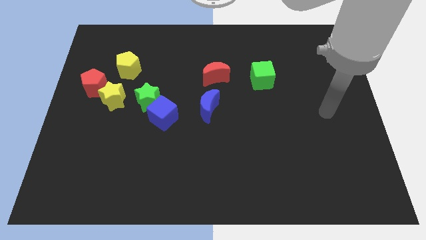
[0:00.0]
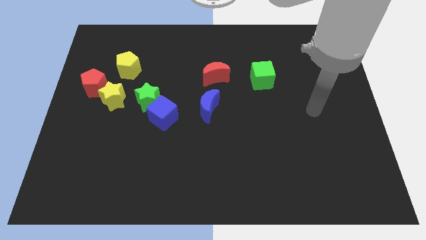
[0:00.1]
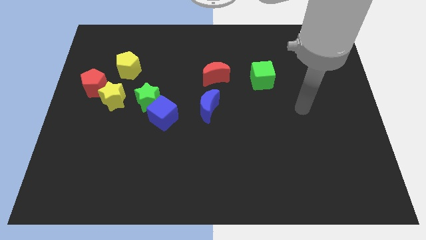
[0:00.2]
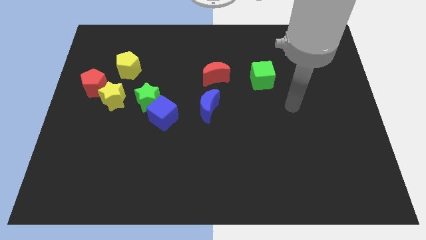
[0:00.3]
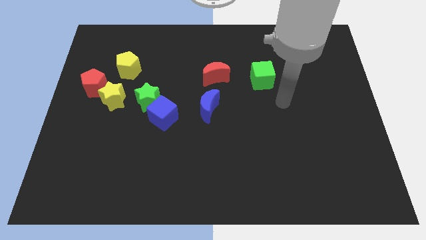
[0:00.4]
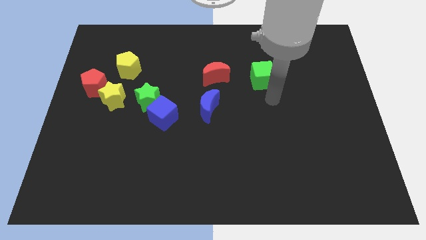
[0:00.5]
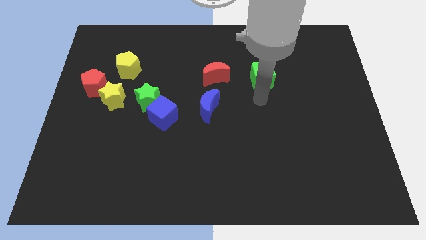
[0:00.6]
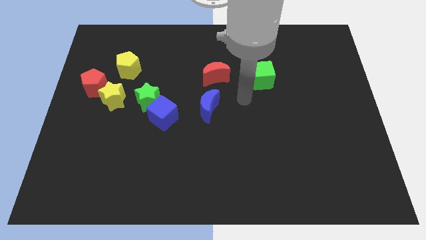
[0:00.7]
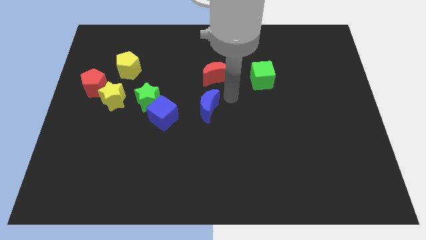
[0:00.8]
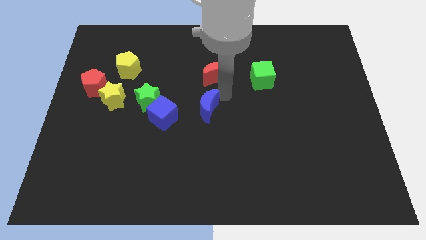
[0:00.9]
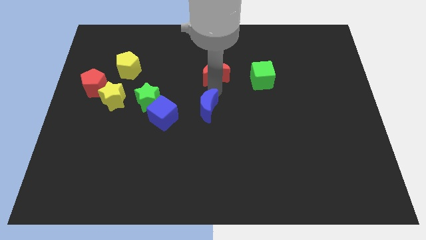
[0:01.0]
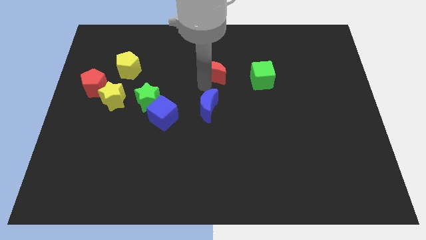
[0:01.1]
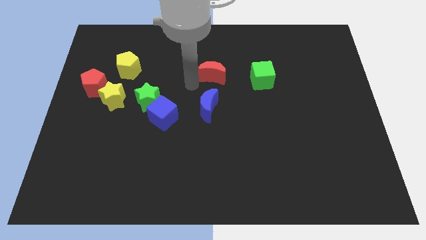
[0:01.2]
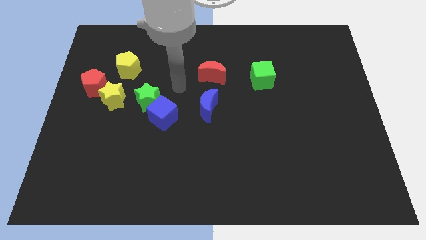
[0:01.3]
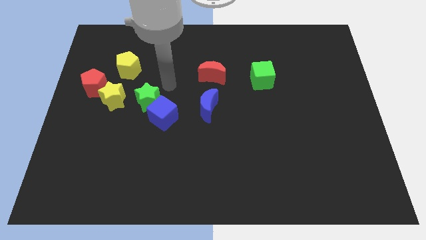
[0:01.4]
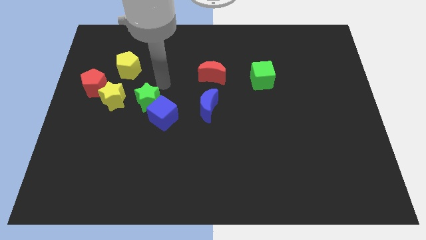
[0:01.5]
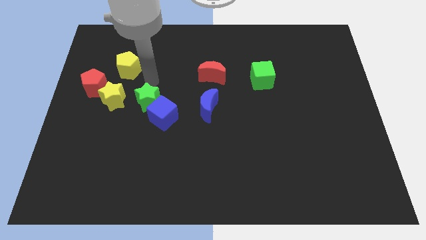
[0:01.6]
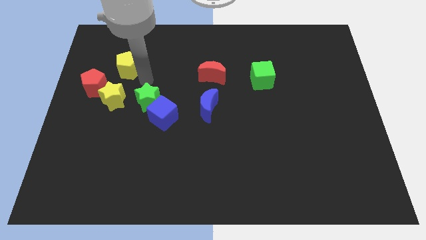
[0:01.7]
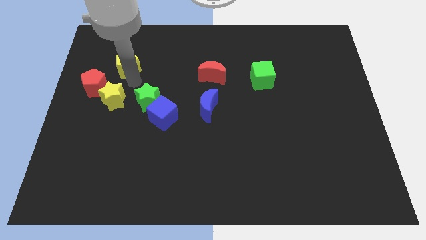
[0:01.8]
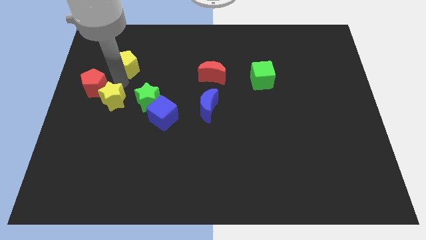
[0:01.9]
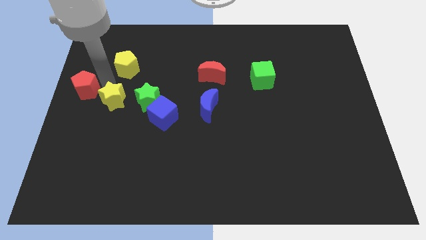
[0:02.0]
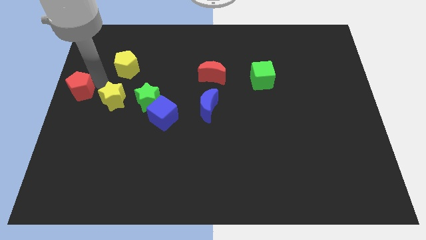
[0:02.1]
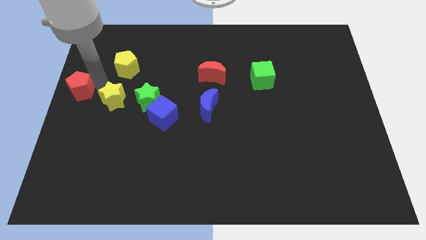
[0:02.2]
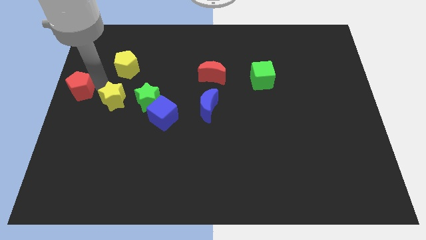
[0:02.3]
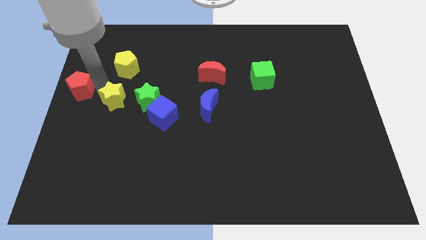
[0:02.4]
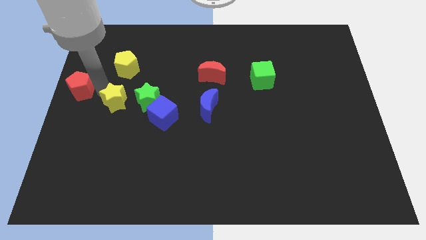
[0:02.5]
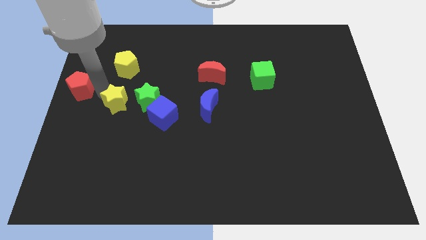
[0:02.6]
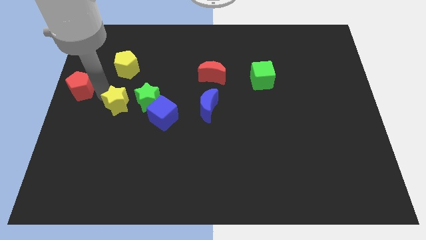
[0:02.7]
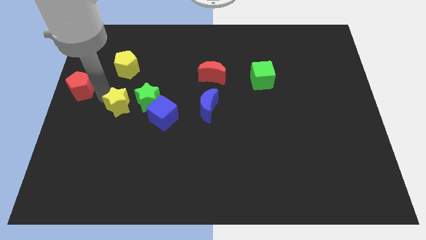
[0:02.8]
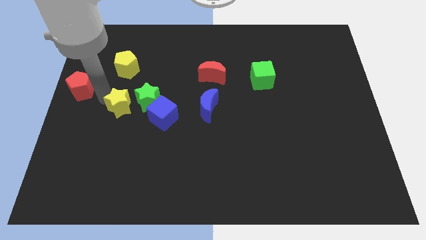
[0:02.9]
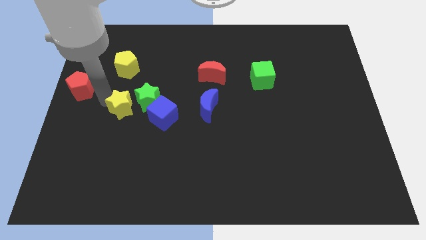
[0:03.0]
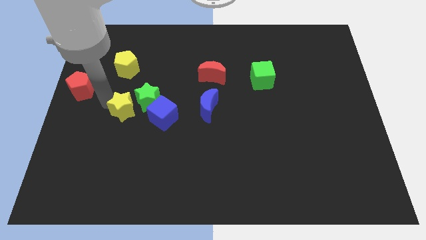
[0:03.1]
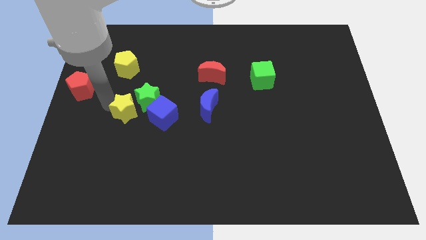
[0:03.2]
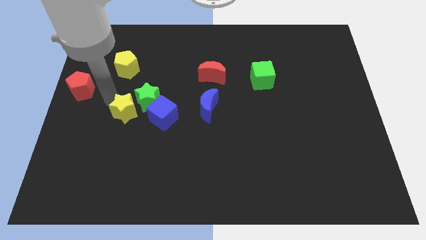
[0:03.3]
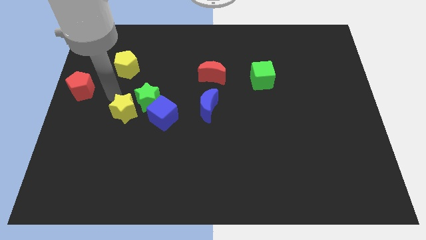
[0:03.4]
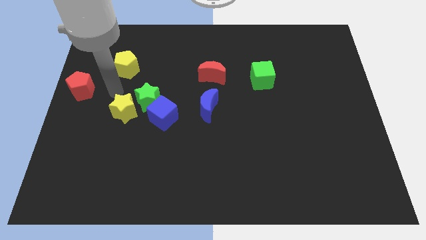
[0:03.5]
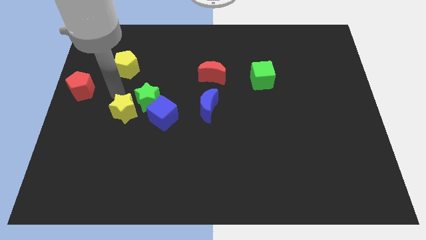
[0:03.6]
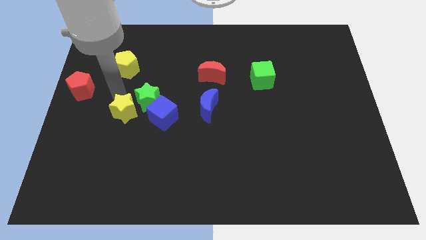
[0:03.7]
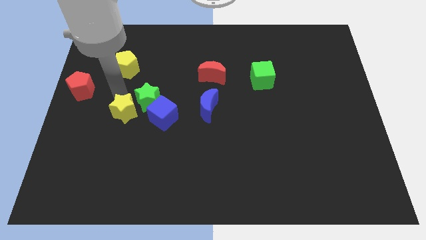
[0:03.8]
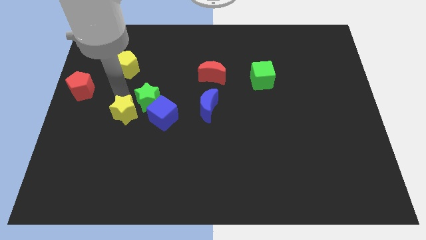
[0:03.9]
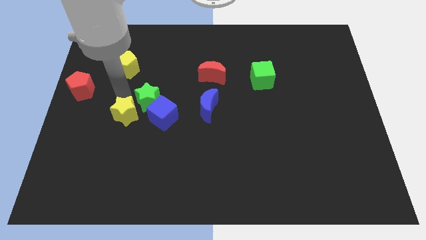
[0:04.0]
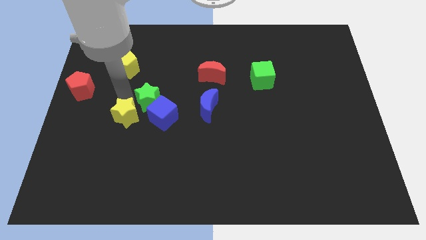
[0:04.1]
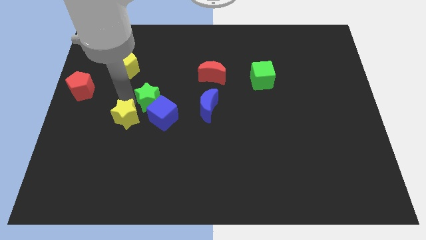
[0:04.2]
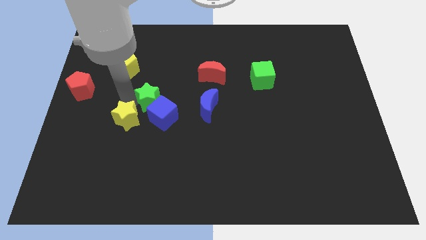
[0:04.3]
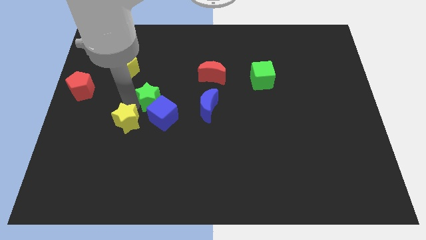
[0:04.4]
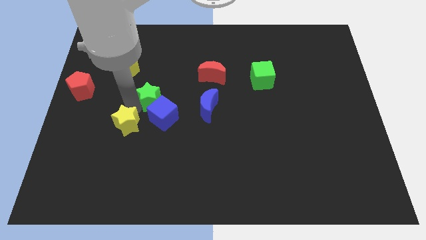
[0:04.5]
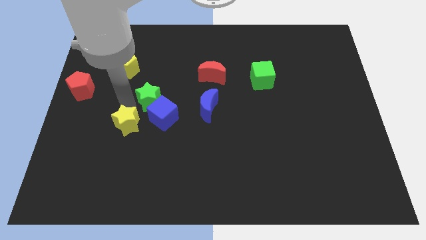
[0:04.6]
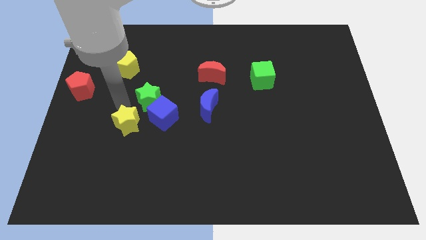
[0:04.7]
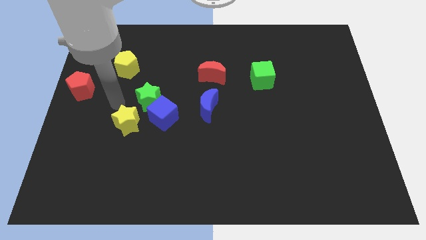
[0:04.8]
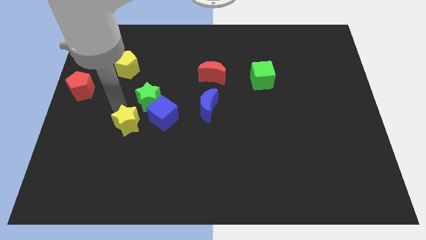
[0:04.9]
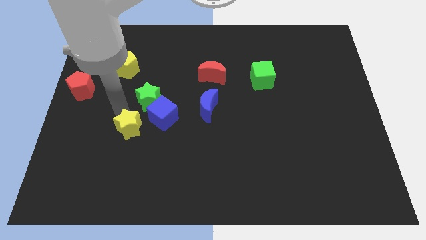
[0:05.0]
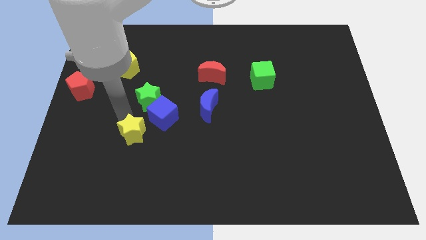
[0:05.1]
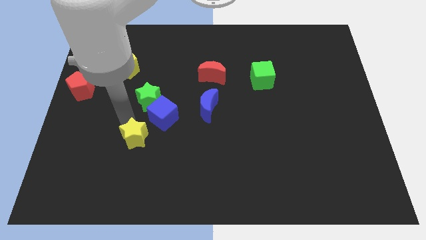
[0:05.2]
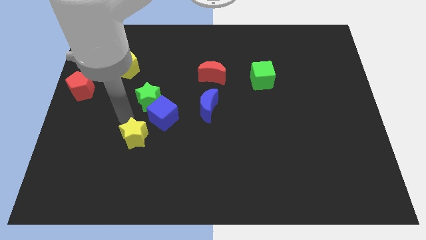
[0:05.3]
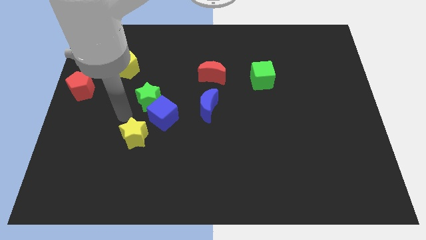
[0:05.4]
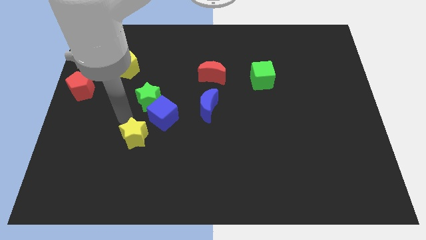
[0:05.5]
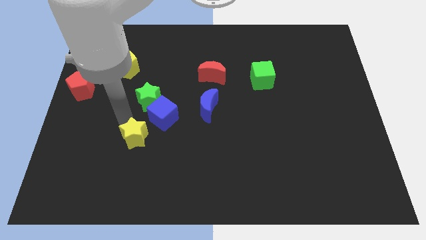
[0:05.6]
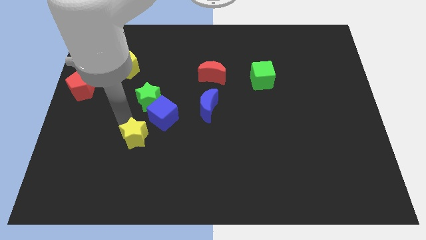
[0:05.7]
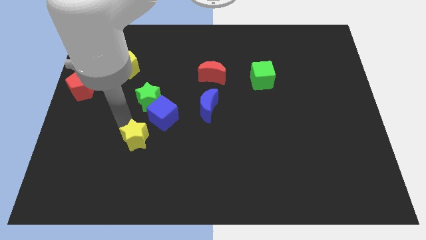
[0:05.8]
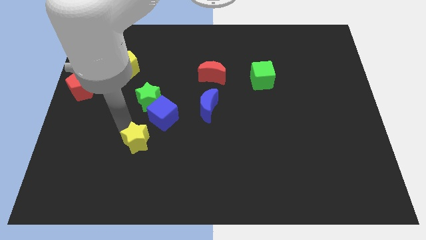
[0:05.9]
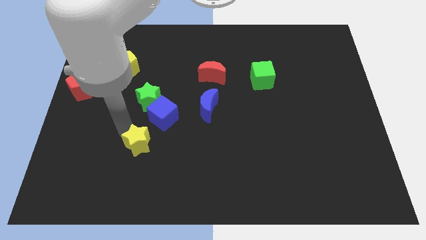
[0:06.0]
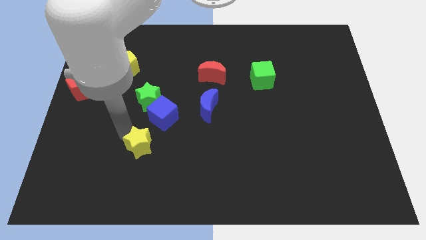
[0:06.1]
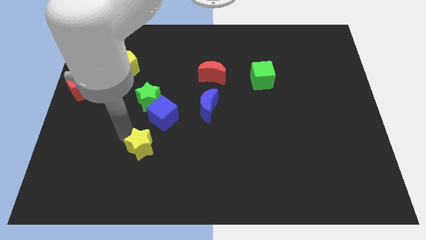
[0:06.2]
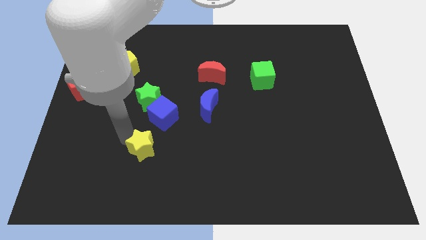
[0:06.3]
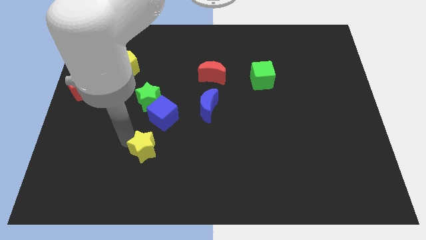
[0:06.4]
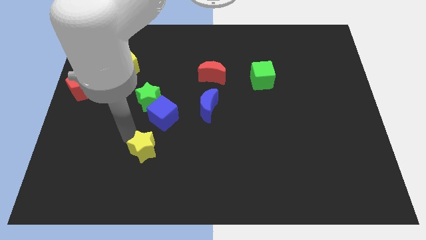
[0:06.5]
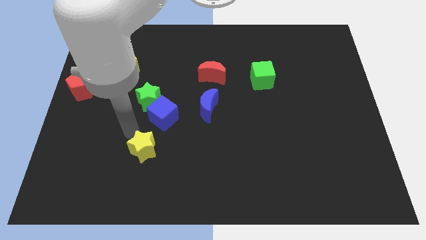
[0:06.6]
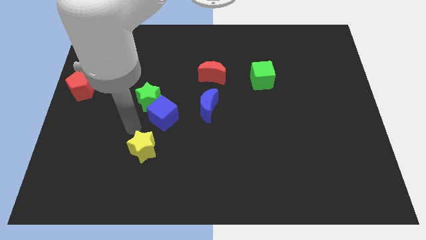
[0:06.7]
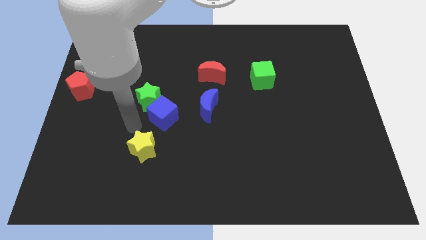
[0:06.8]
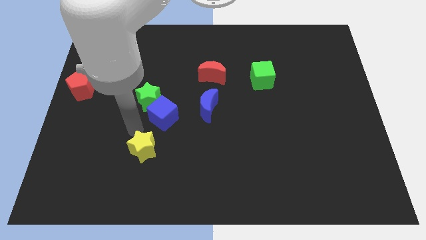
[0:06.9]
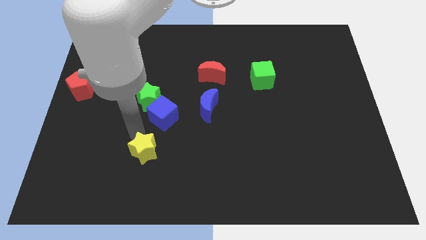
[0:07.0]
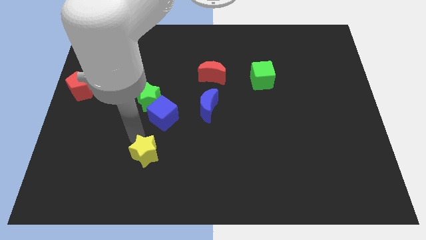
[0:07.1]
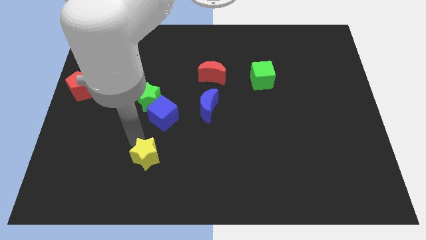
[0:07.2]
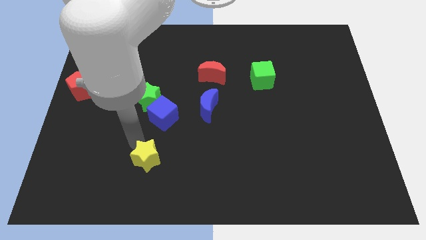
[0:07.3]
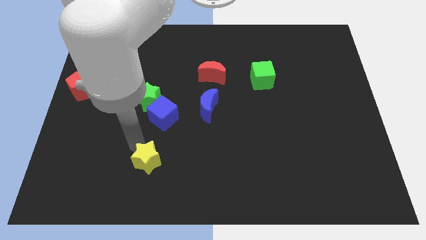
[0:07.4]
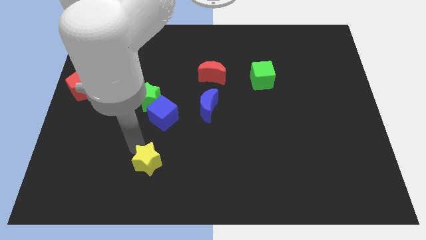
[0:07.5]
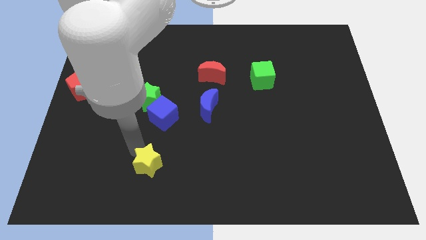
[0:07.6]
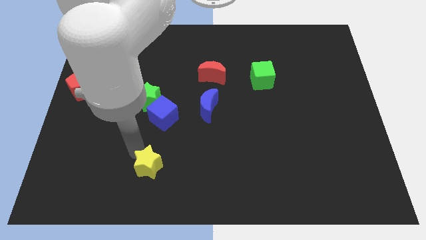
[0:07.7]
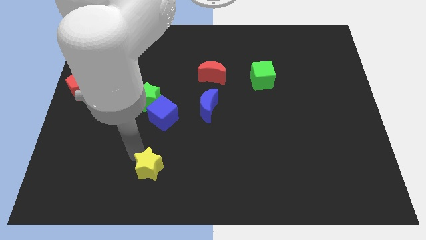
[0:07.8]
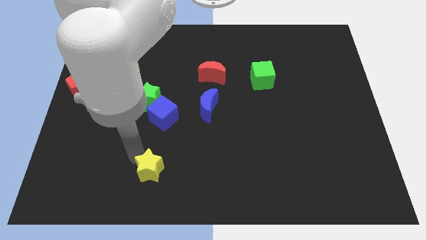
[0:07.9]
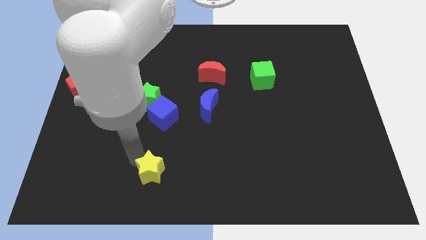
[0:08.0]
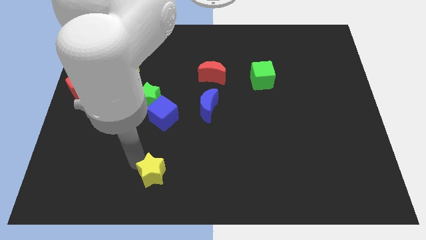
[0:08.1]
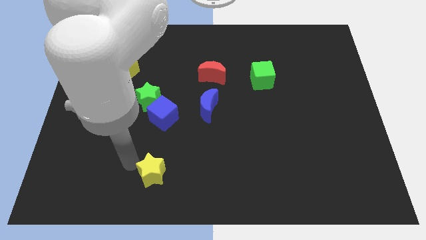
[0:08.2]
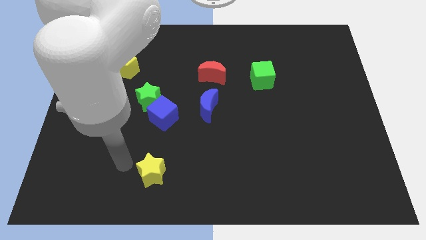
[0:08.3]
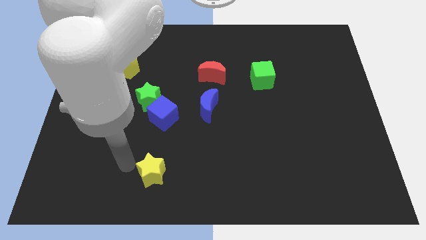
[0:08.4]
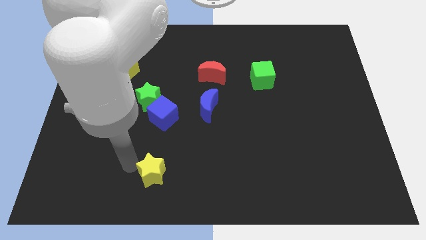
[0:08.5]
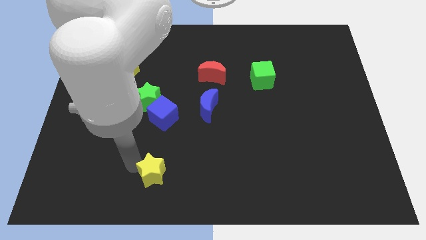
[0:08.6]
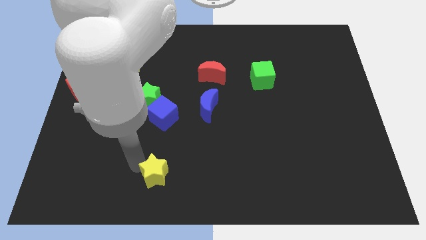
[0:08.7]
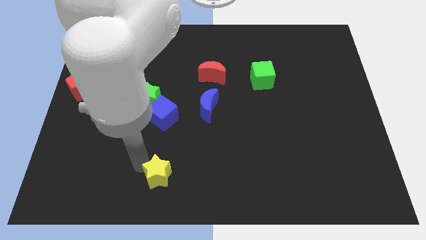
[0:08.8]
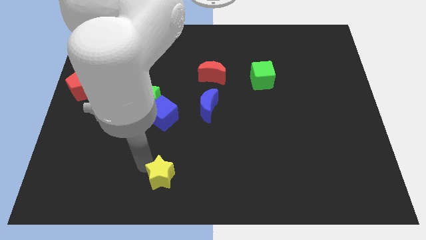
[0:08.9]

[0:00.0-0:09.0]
put the yellow star to the bottom
